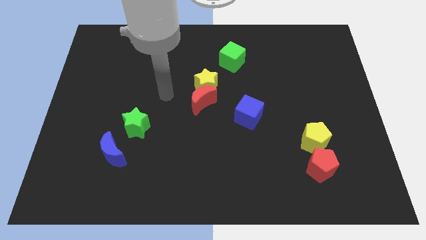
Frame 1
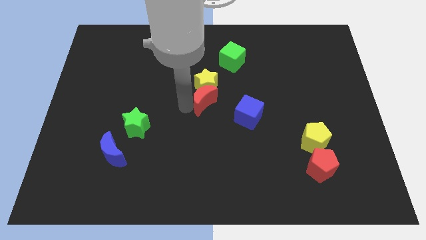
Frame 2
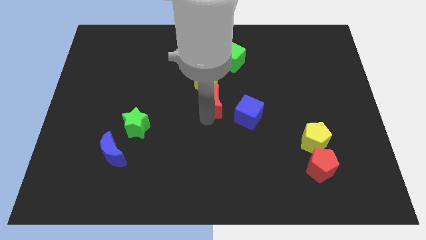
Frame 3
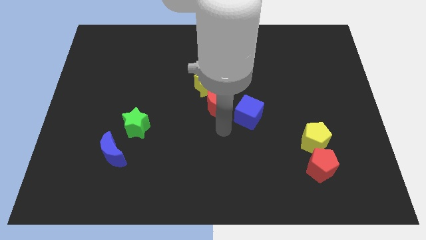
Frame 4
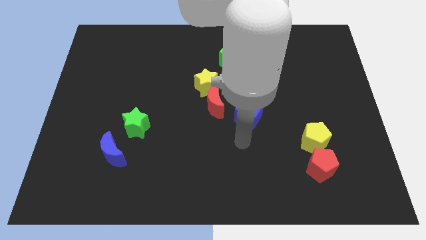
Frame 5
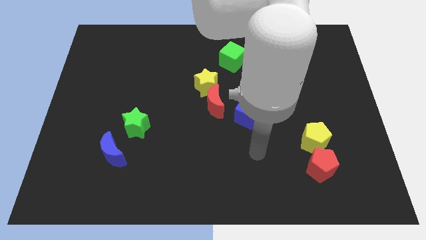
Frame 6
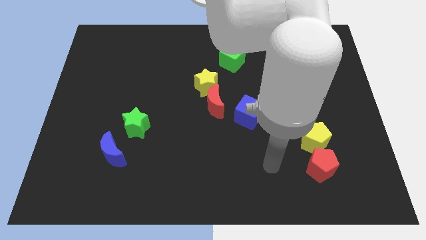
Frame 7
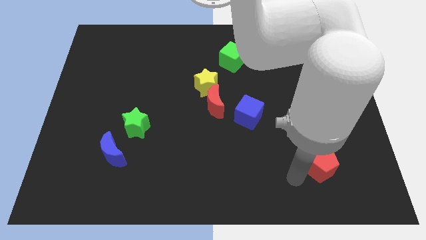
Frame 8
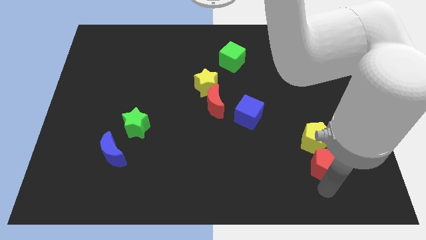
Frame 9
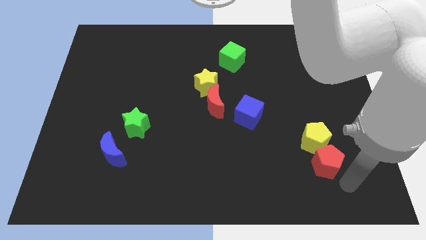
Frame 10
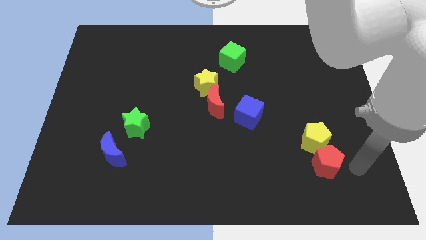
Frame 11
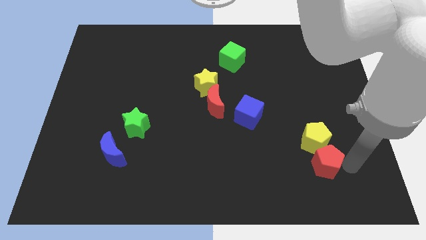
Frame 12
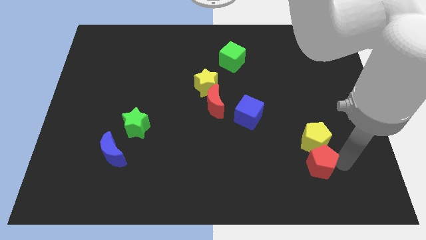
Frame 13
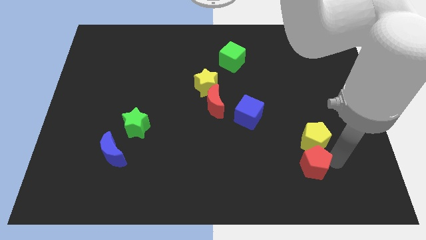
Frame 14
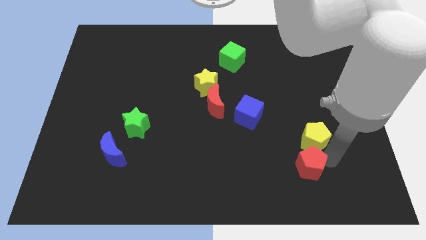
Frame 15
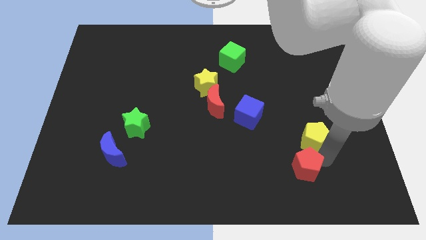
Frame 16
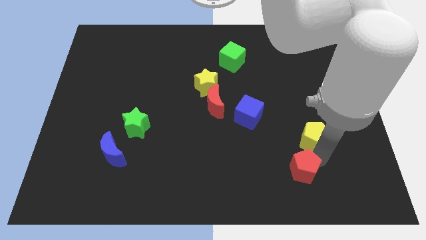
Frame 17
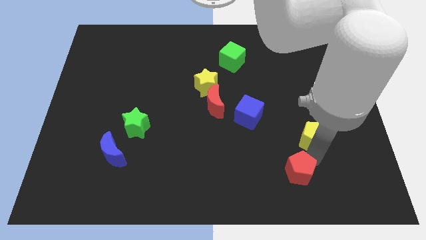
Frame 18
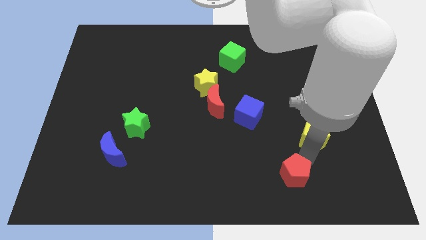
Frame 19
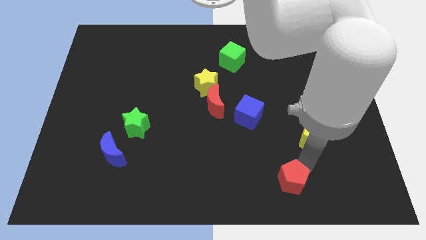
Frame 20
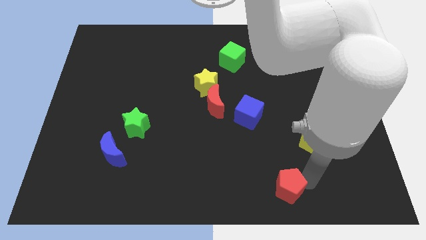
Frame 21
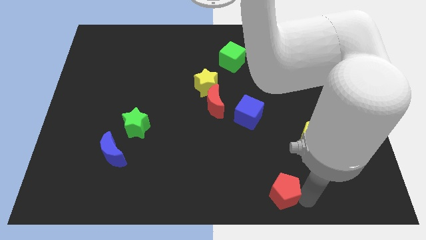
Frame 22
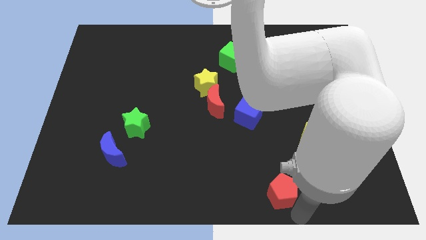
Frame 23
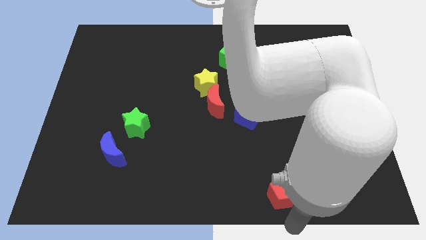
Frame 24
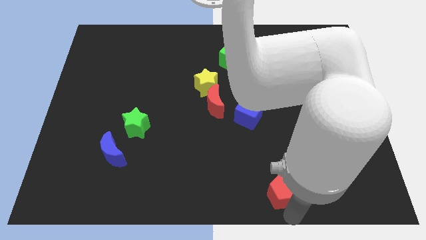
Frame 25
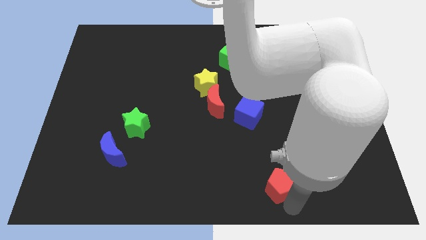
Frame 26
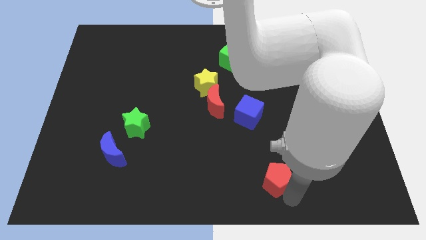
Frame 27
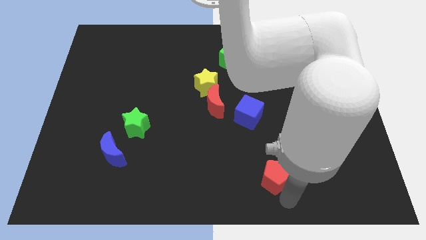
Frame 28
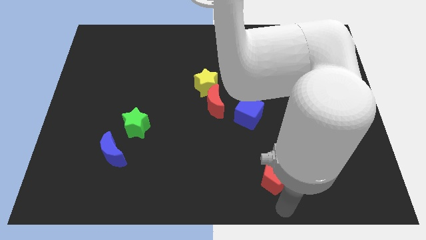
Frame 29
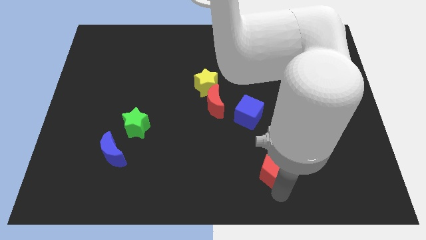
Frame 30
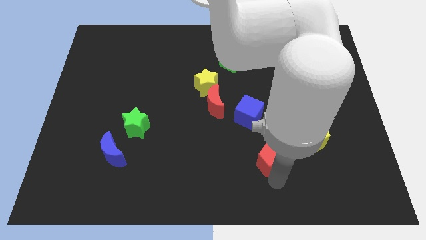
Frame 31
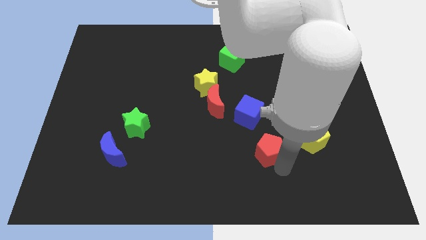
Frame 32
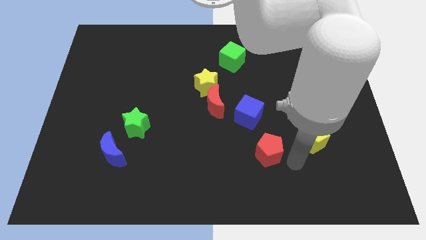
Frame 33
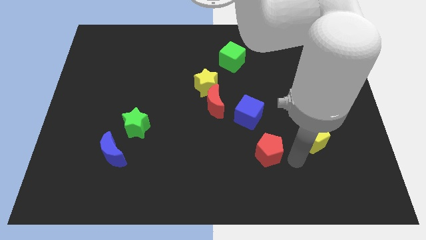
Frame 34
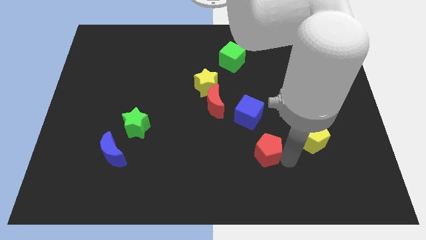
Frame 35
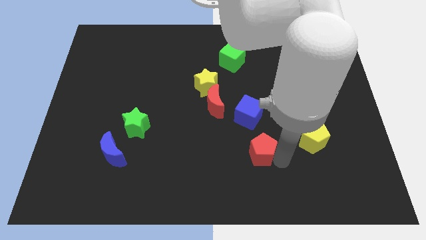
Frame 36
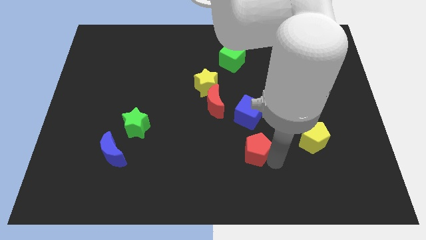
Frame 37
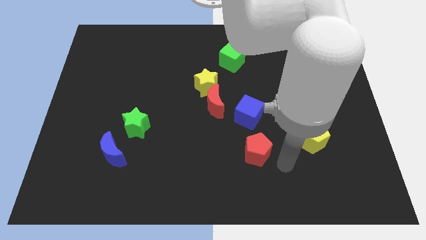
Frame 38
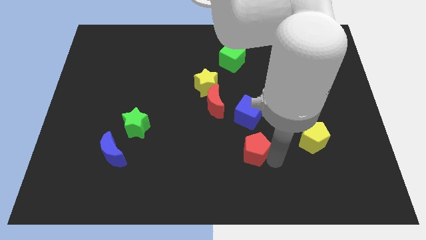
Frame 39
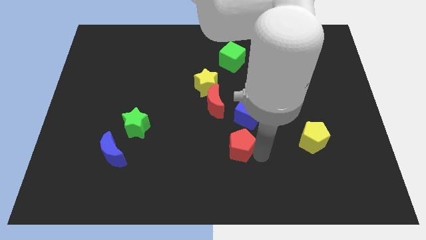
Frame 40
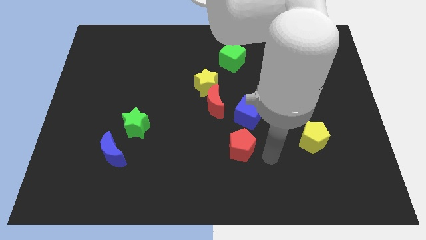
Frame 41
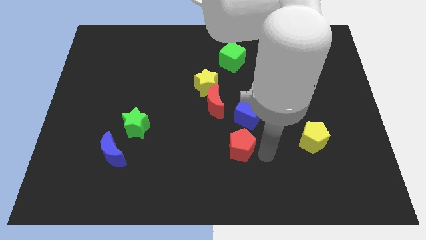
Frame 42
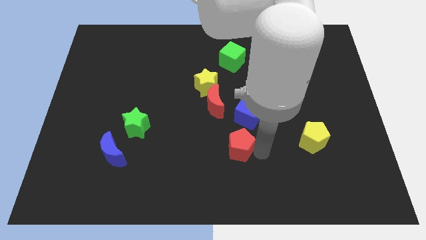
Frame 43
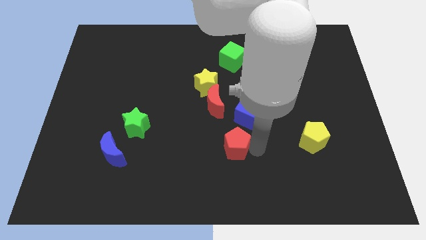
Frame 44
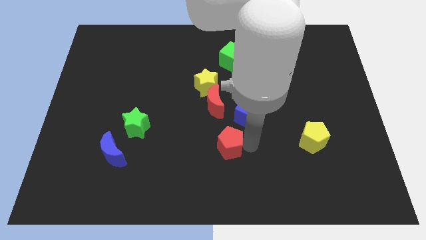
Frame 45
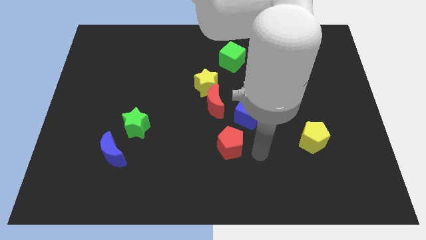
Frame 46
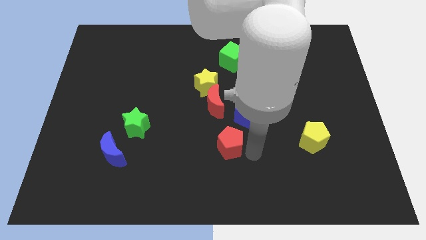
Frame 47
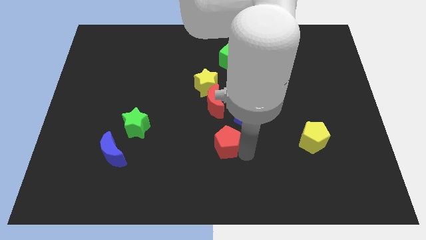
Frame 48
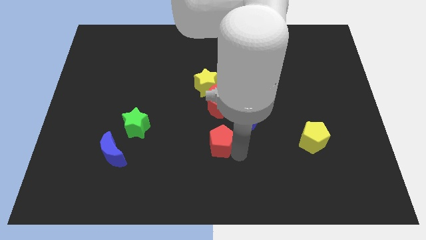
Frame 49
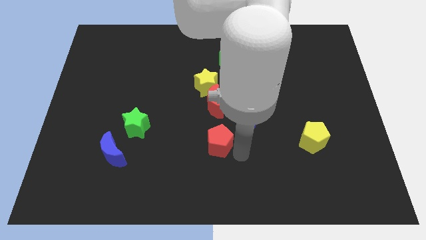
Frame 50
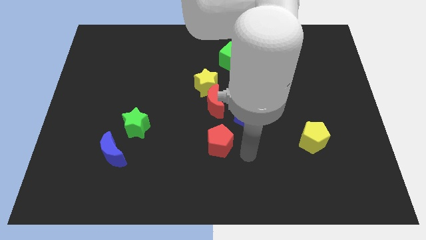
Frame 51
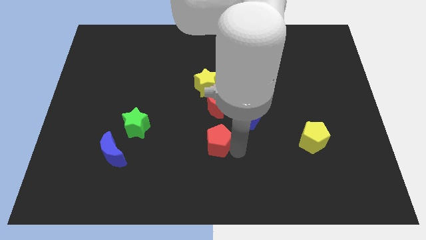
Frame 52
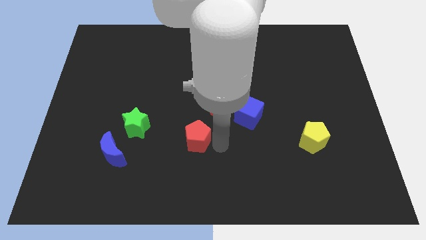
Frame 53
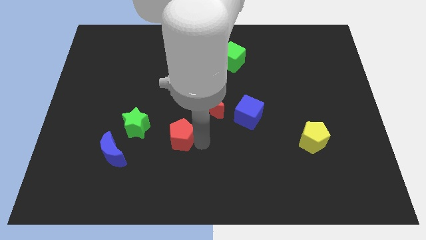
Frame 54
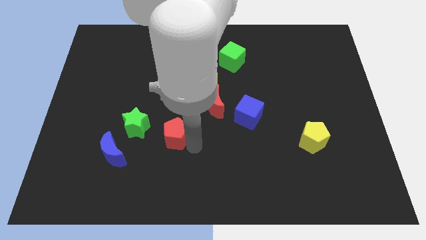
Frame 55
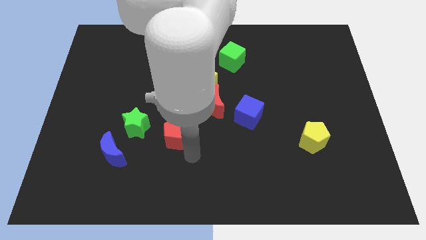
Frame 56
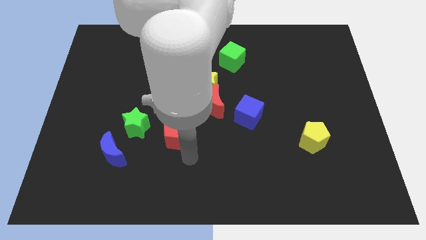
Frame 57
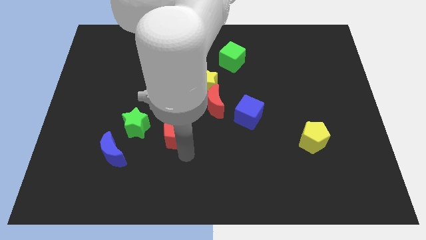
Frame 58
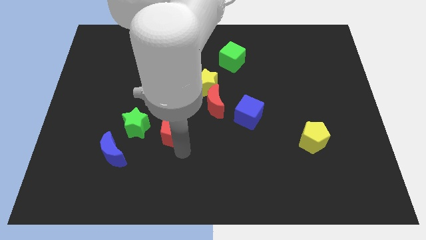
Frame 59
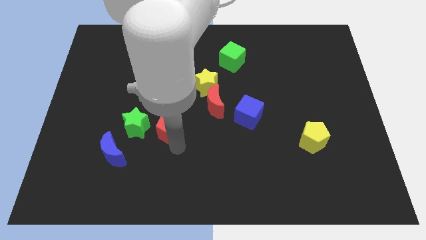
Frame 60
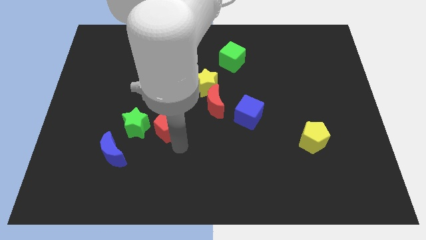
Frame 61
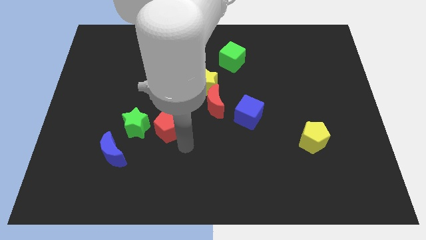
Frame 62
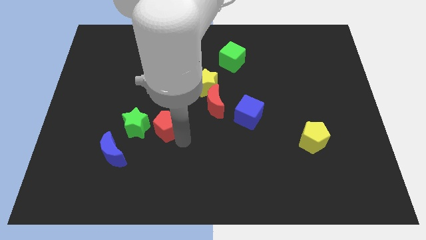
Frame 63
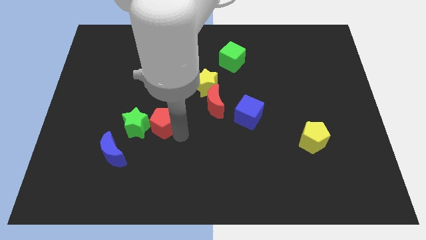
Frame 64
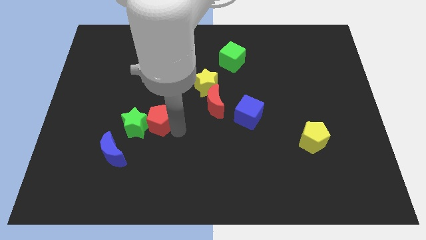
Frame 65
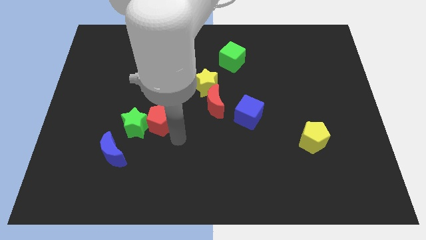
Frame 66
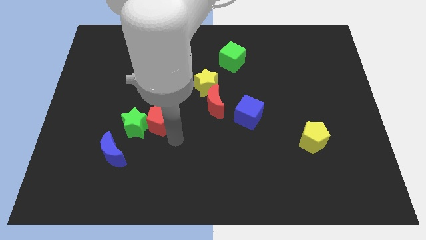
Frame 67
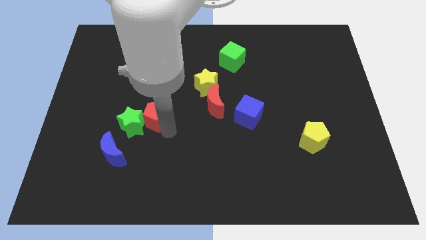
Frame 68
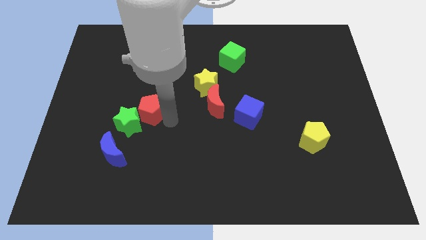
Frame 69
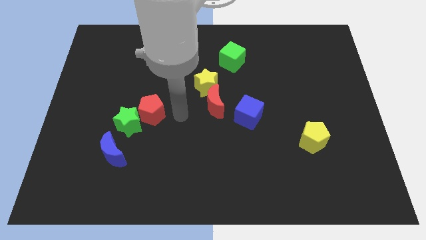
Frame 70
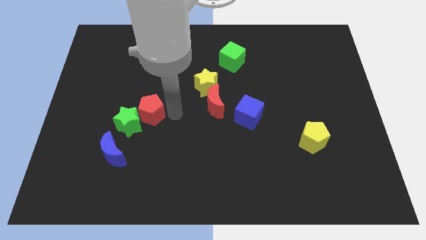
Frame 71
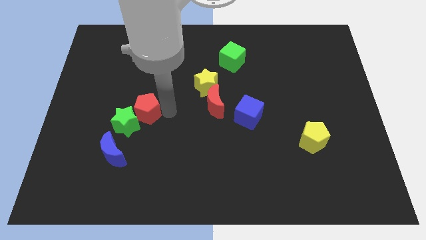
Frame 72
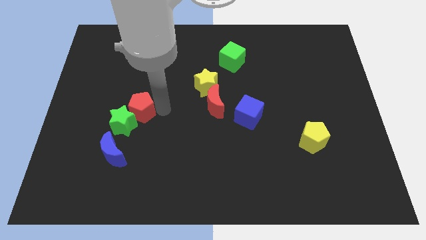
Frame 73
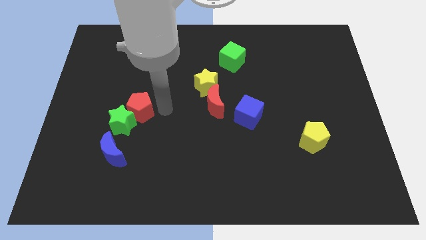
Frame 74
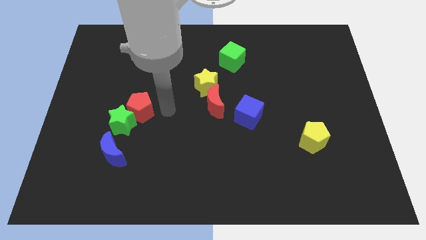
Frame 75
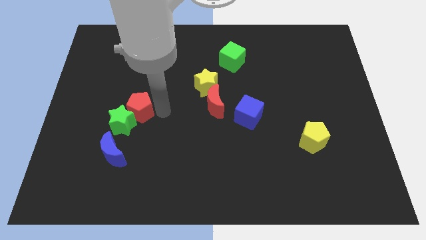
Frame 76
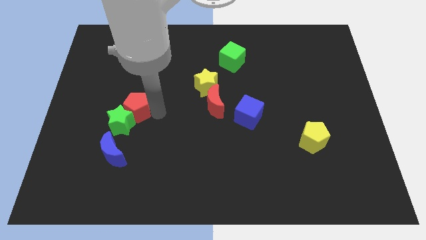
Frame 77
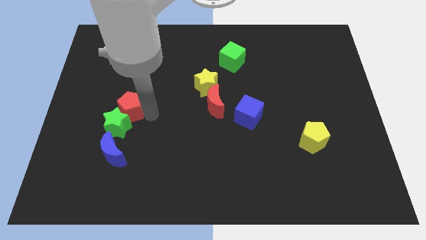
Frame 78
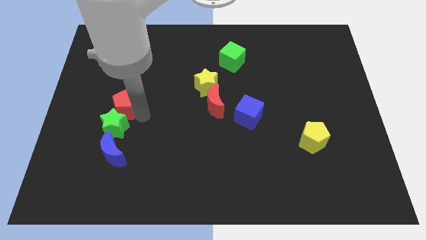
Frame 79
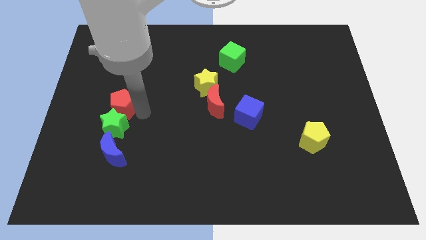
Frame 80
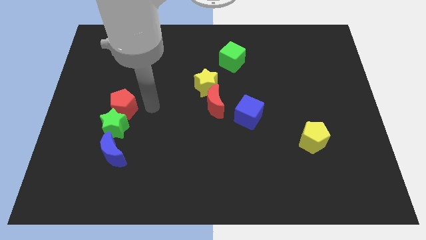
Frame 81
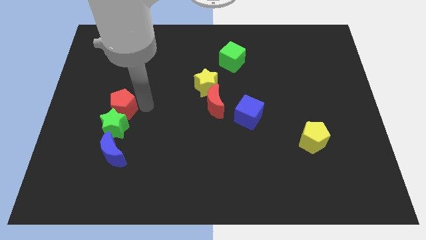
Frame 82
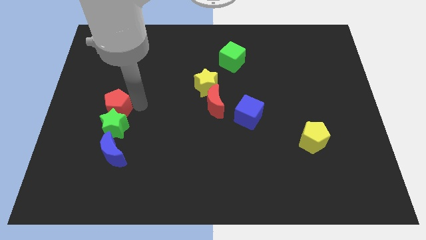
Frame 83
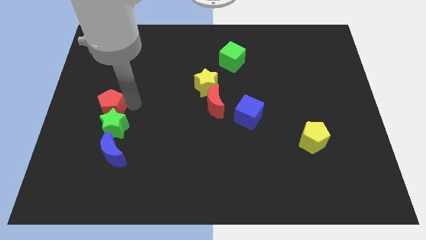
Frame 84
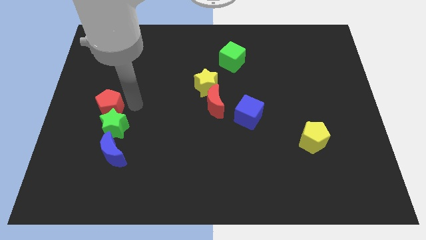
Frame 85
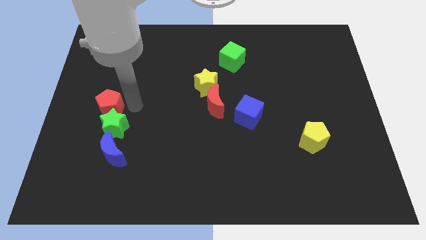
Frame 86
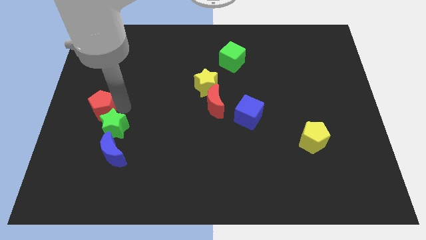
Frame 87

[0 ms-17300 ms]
slide the red pentagon to the left side
